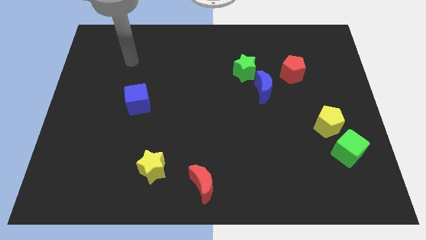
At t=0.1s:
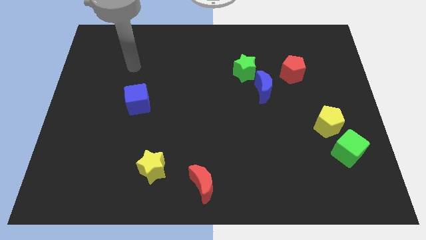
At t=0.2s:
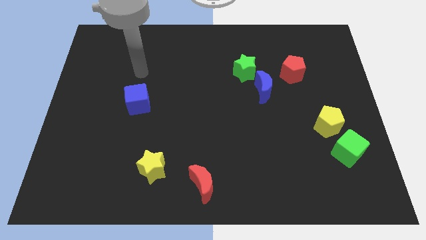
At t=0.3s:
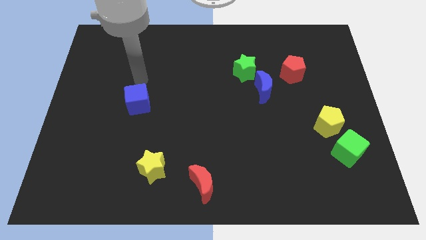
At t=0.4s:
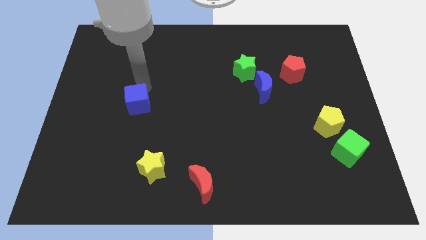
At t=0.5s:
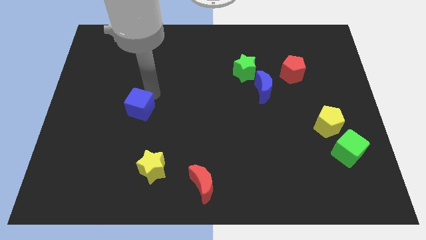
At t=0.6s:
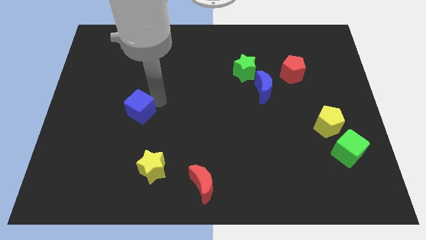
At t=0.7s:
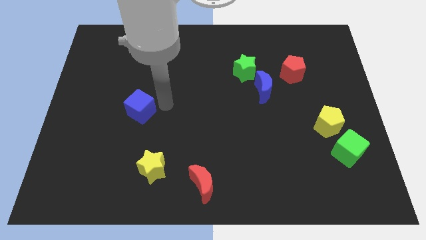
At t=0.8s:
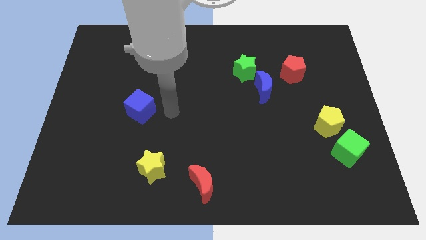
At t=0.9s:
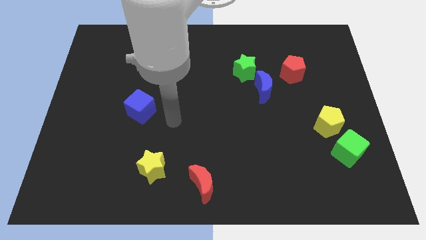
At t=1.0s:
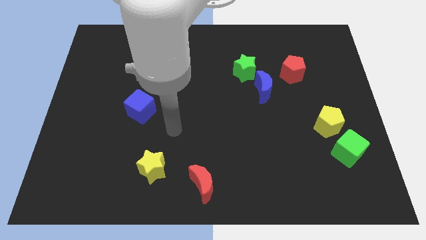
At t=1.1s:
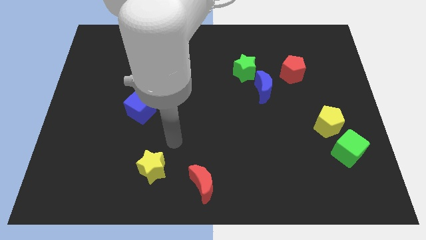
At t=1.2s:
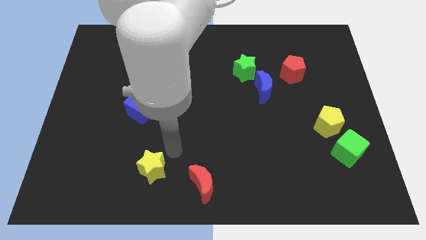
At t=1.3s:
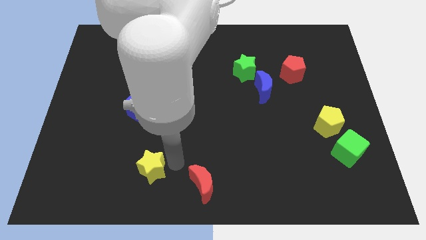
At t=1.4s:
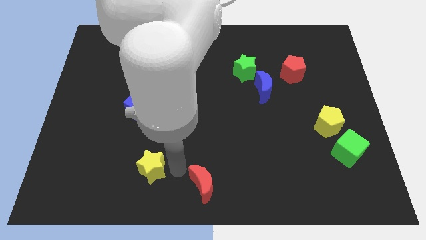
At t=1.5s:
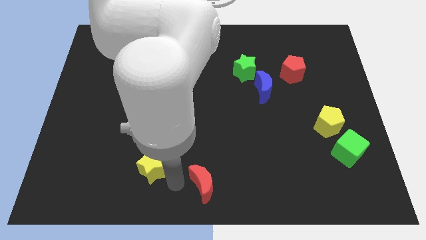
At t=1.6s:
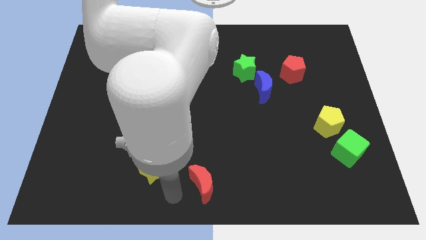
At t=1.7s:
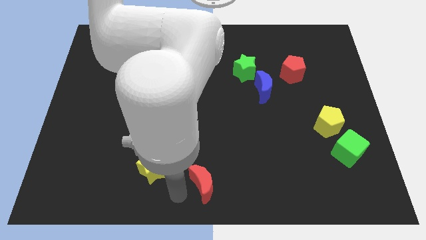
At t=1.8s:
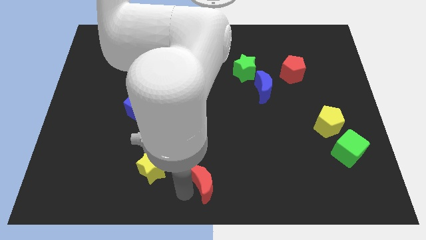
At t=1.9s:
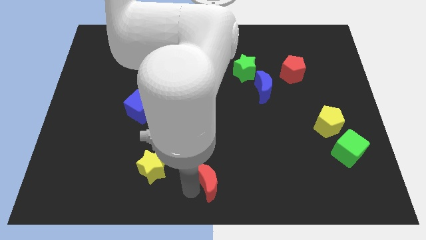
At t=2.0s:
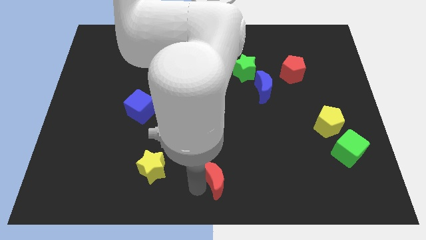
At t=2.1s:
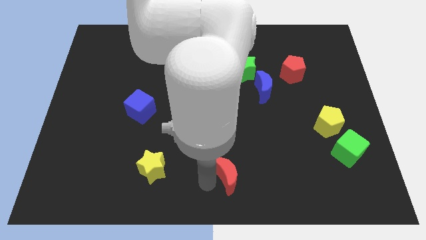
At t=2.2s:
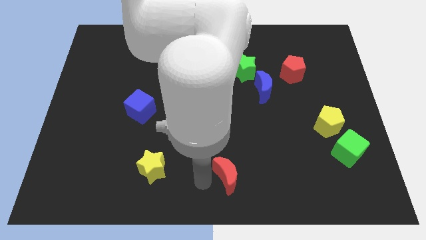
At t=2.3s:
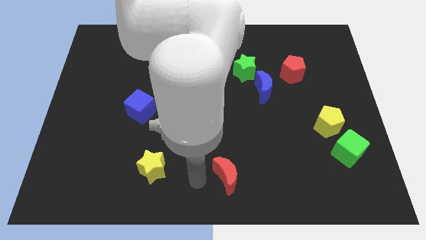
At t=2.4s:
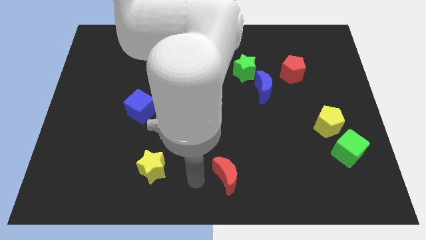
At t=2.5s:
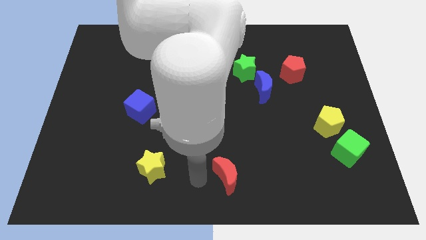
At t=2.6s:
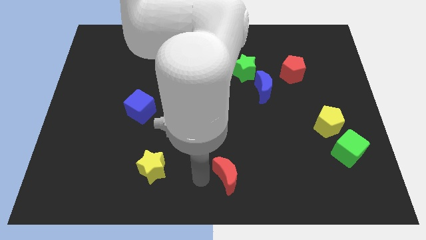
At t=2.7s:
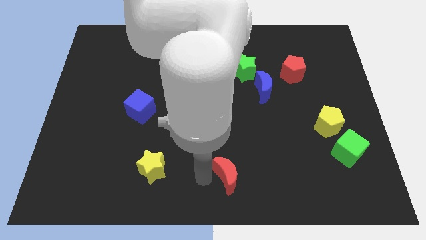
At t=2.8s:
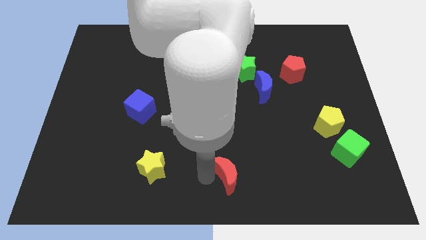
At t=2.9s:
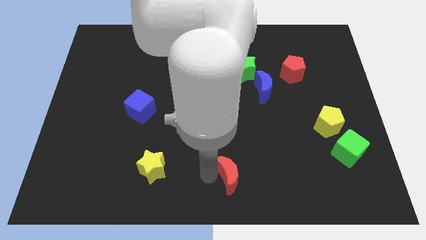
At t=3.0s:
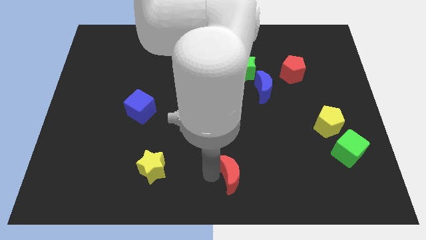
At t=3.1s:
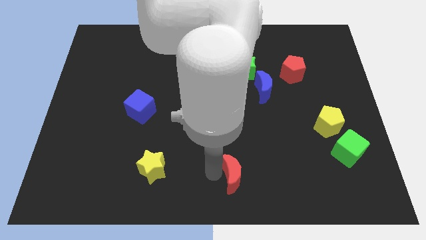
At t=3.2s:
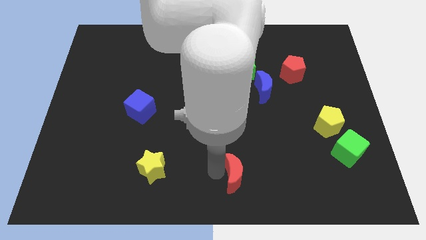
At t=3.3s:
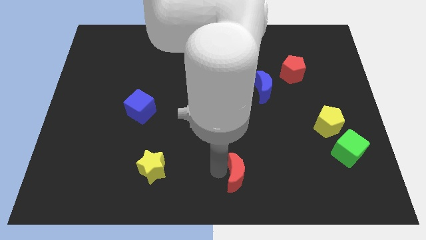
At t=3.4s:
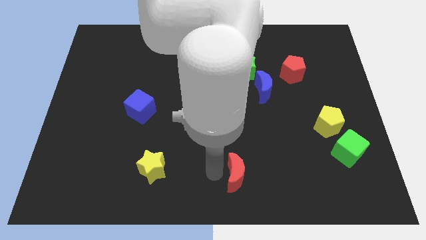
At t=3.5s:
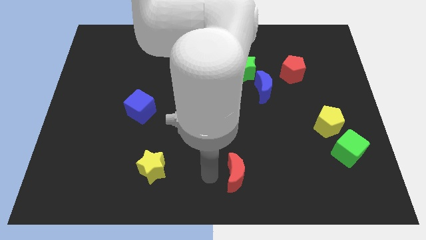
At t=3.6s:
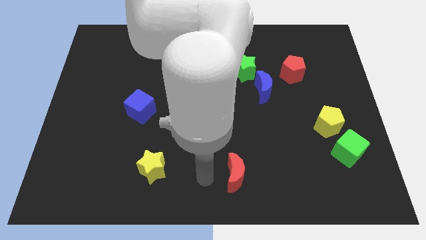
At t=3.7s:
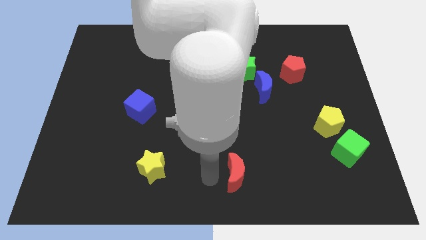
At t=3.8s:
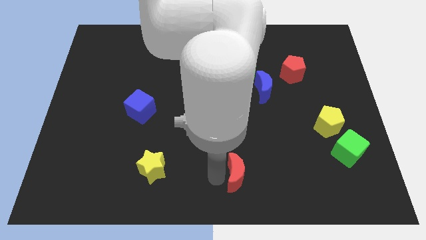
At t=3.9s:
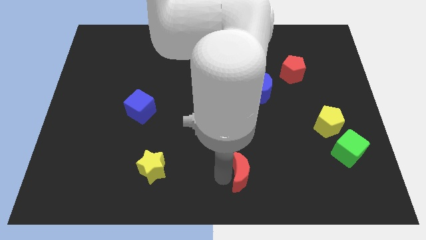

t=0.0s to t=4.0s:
slightly move the red moon right

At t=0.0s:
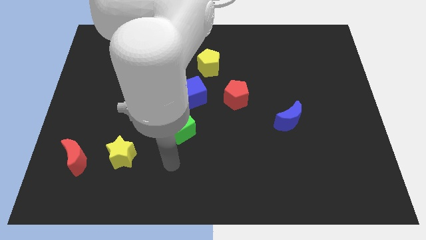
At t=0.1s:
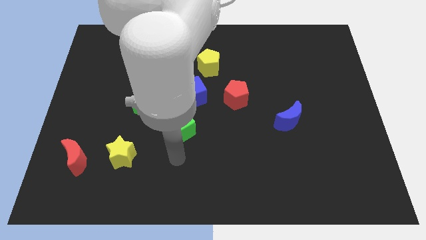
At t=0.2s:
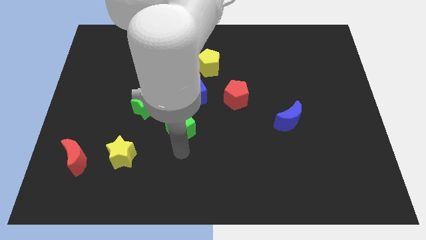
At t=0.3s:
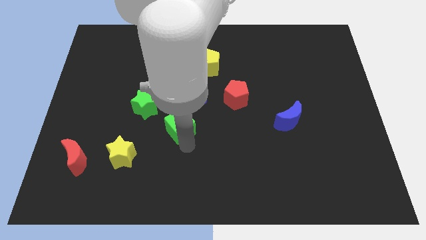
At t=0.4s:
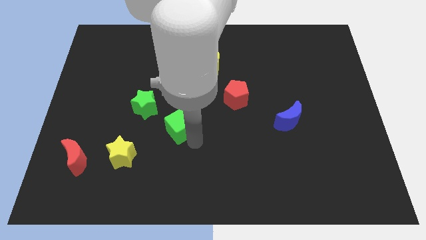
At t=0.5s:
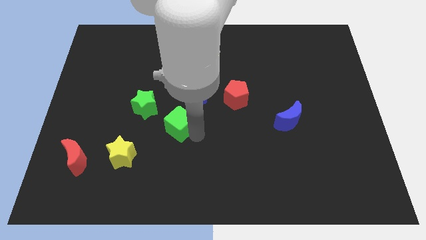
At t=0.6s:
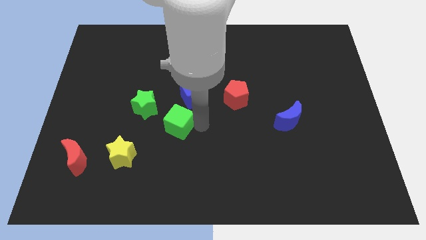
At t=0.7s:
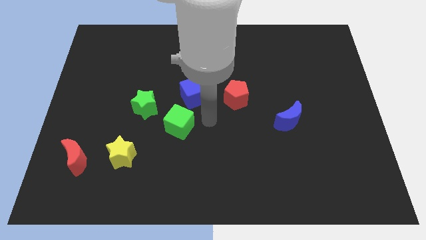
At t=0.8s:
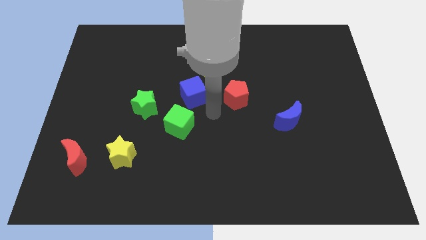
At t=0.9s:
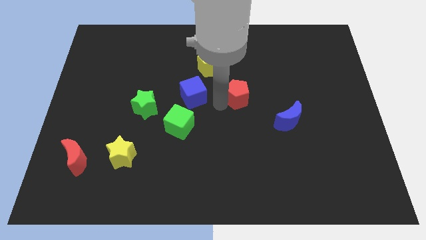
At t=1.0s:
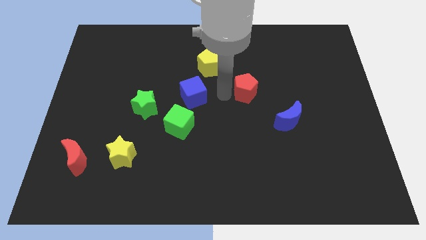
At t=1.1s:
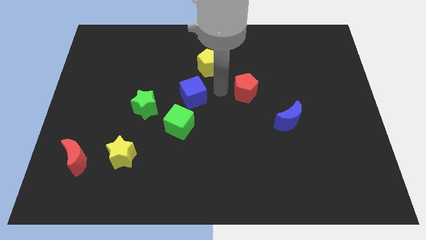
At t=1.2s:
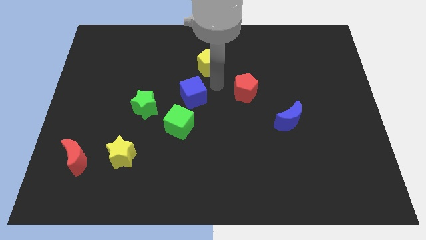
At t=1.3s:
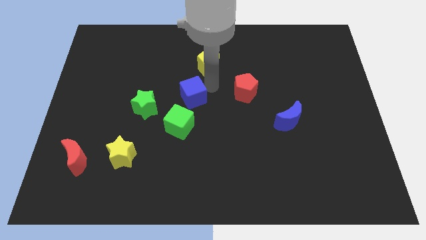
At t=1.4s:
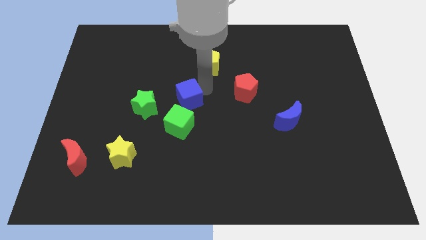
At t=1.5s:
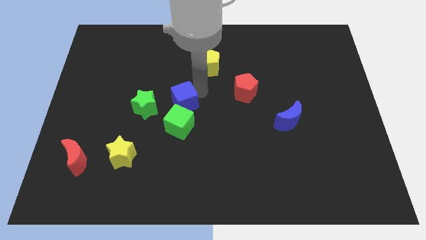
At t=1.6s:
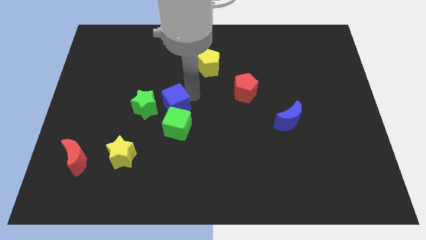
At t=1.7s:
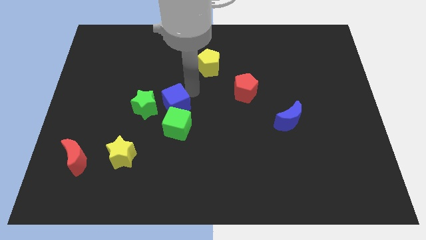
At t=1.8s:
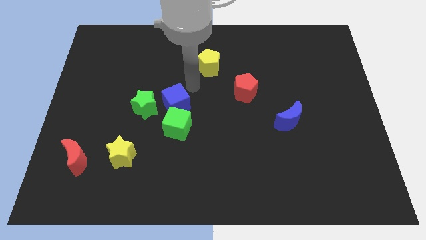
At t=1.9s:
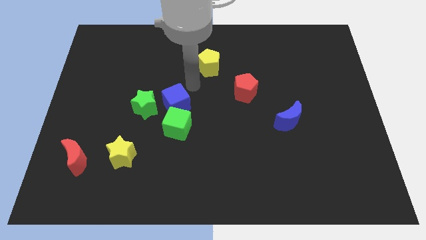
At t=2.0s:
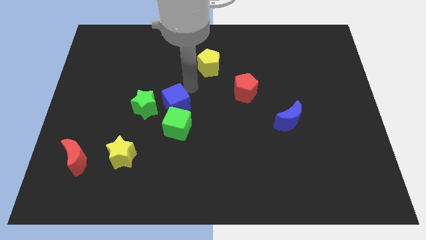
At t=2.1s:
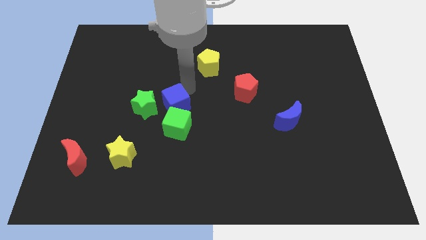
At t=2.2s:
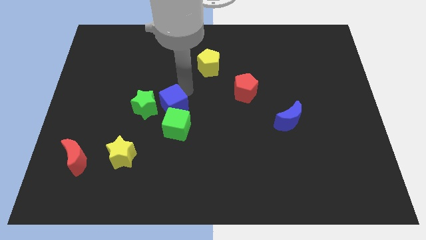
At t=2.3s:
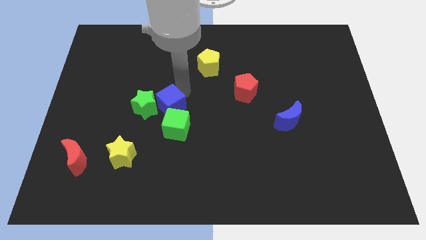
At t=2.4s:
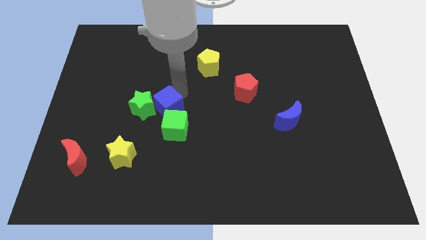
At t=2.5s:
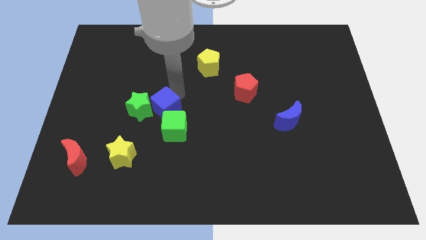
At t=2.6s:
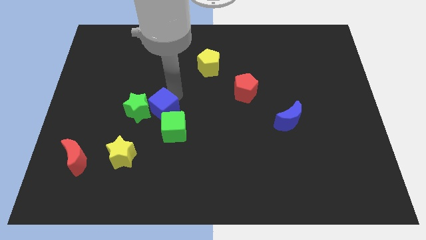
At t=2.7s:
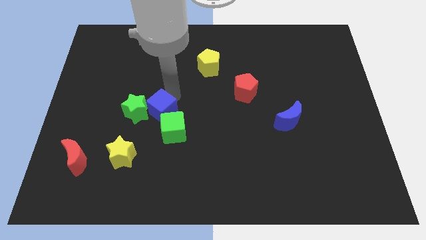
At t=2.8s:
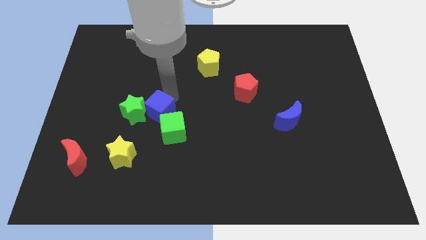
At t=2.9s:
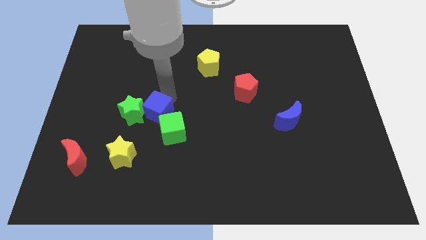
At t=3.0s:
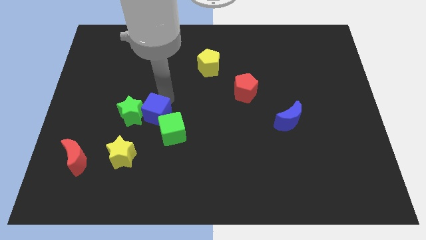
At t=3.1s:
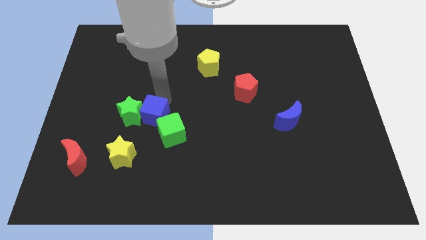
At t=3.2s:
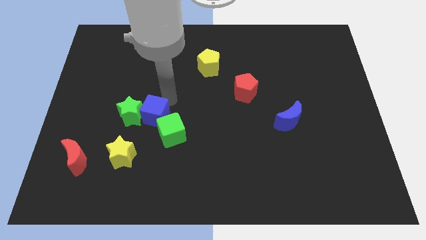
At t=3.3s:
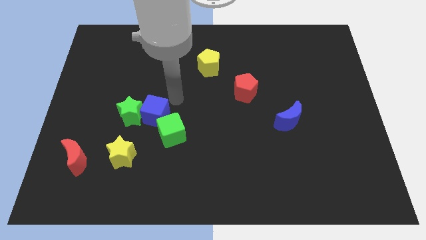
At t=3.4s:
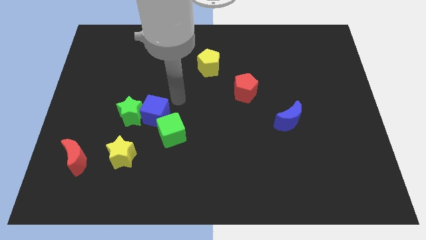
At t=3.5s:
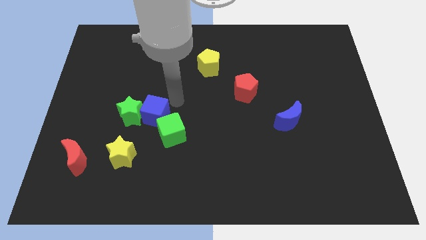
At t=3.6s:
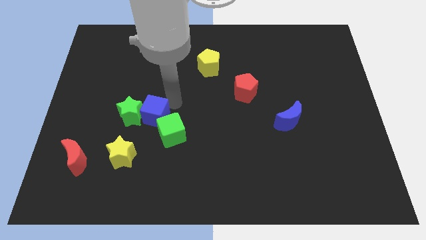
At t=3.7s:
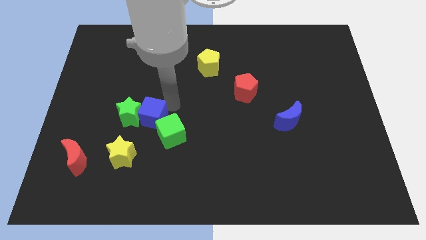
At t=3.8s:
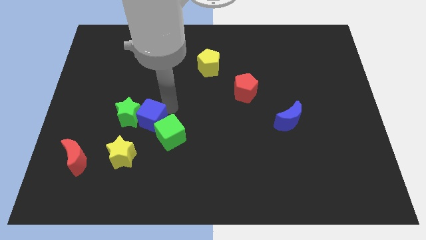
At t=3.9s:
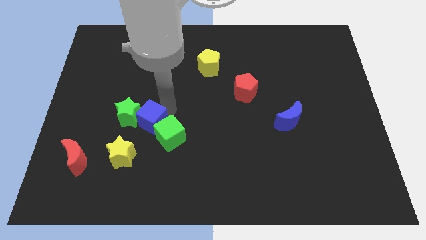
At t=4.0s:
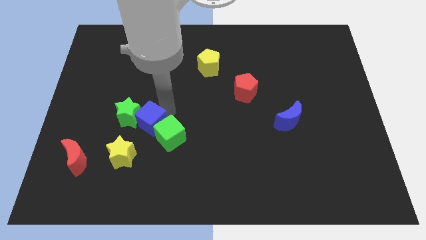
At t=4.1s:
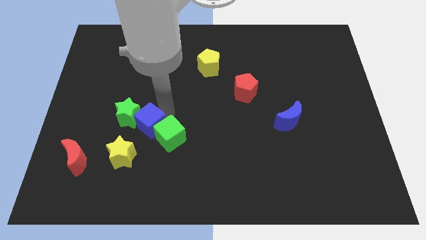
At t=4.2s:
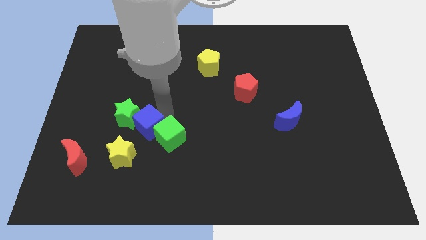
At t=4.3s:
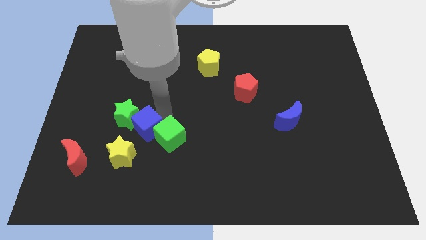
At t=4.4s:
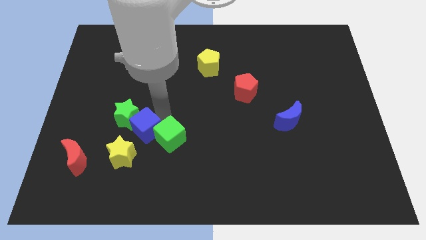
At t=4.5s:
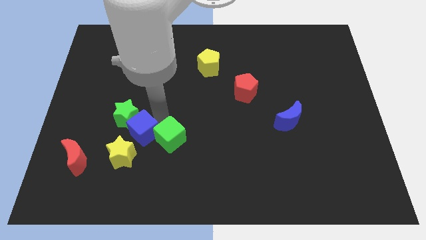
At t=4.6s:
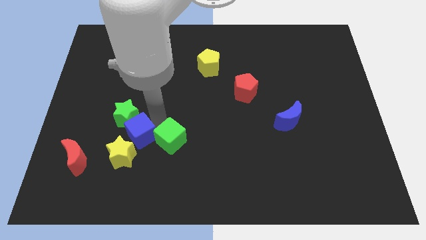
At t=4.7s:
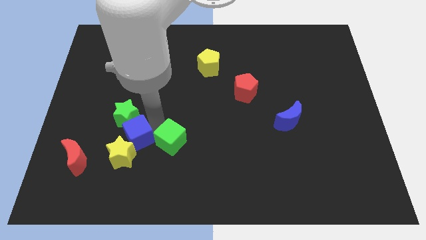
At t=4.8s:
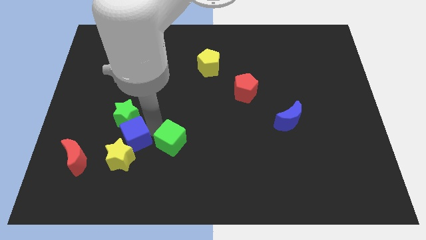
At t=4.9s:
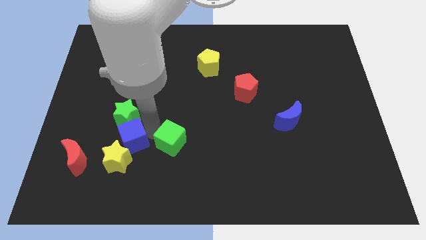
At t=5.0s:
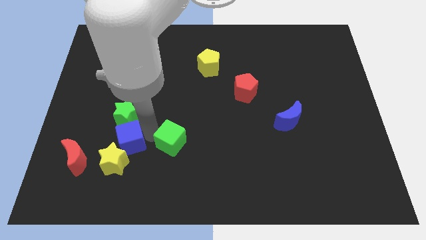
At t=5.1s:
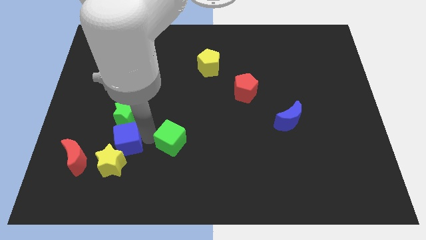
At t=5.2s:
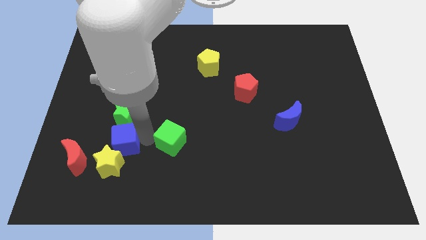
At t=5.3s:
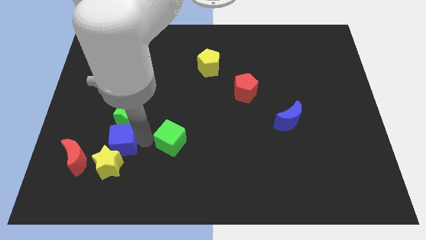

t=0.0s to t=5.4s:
slide the blue cube down and left
